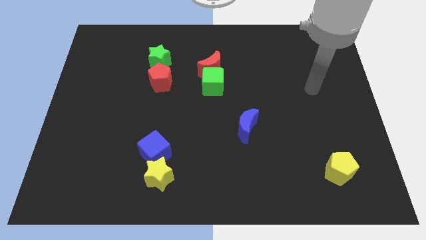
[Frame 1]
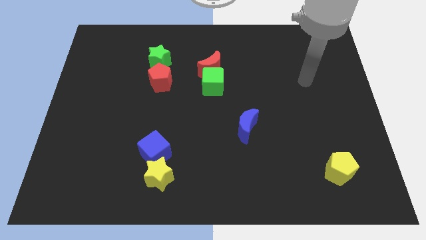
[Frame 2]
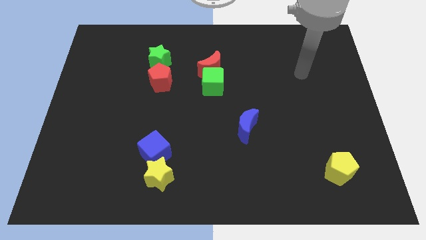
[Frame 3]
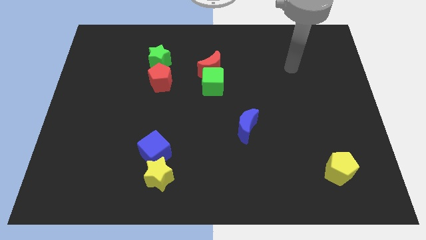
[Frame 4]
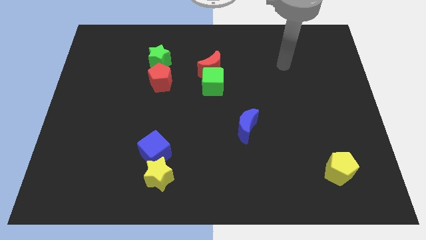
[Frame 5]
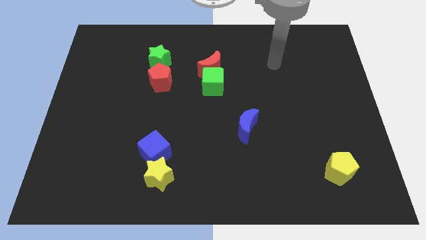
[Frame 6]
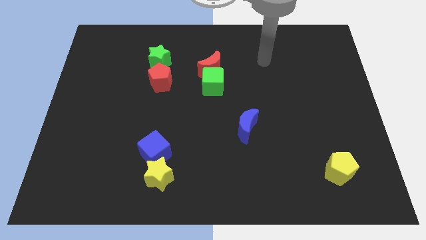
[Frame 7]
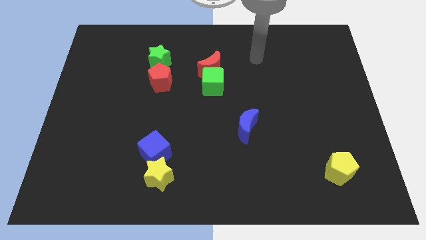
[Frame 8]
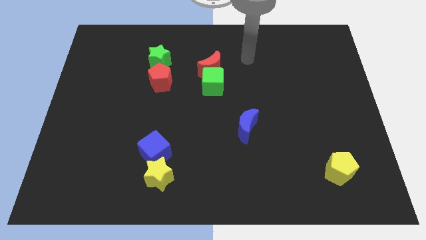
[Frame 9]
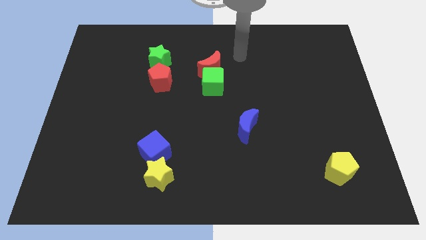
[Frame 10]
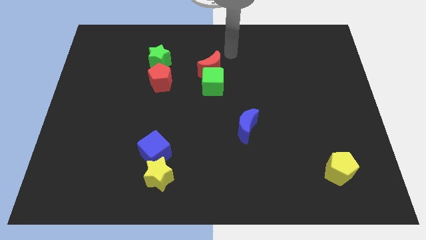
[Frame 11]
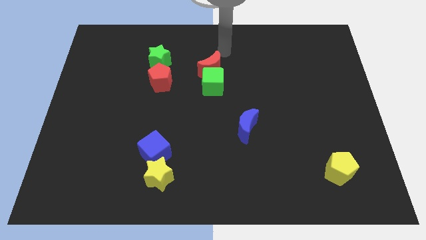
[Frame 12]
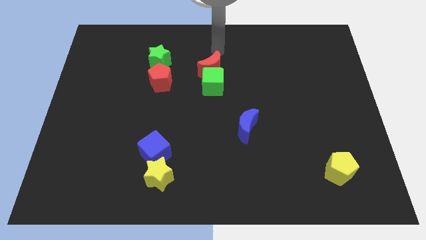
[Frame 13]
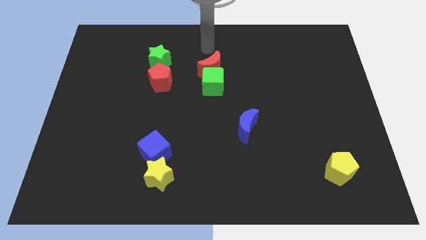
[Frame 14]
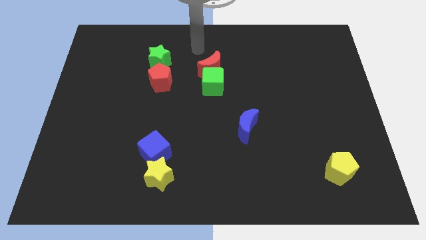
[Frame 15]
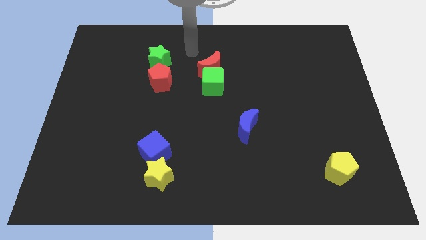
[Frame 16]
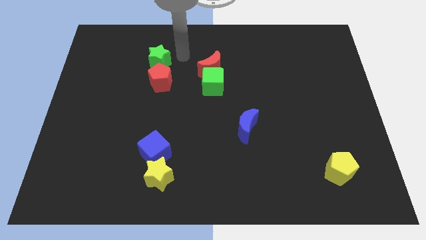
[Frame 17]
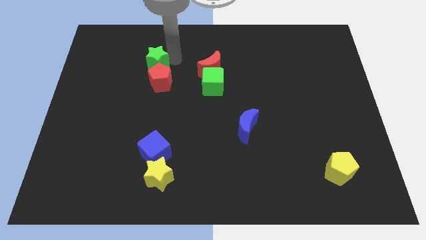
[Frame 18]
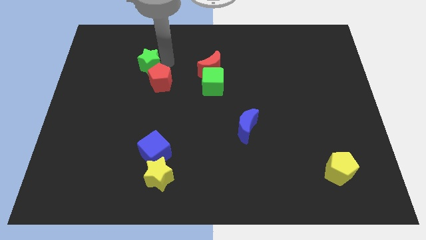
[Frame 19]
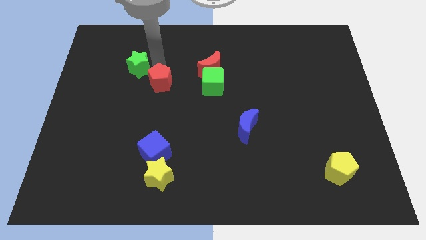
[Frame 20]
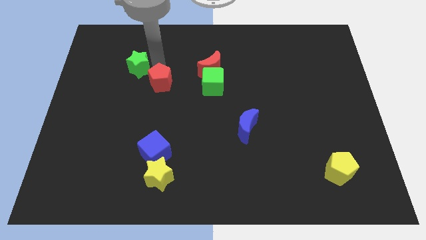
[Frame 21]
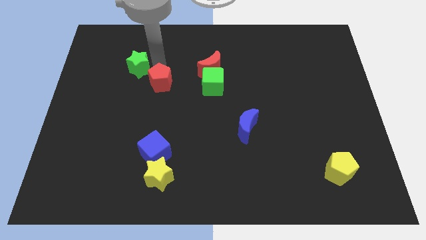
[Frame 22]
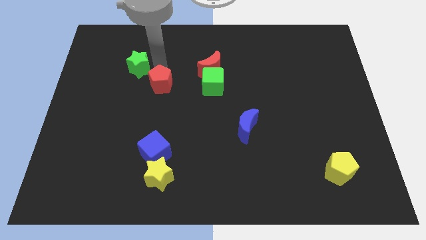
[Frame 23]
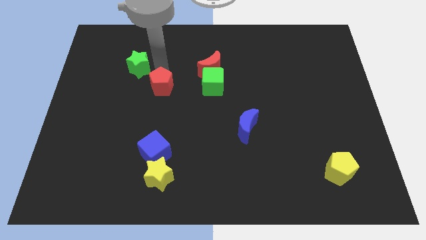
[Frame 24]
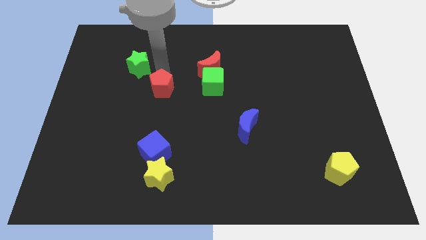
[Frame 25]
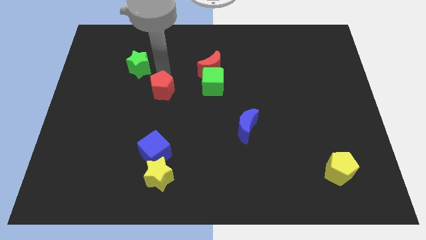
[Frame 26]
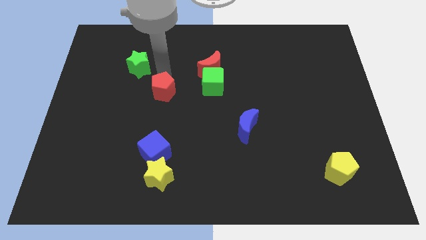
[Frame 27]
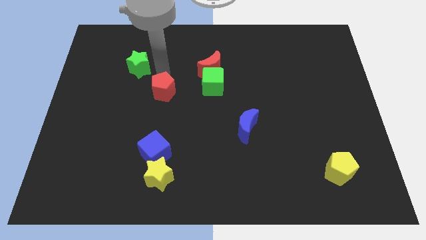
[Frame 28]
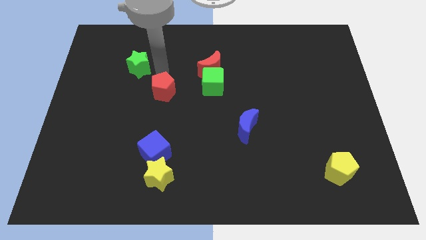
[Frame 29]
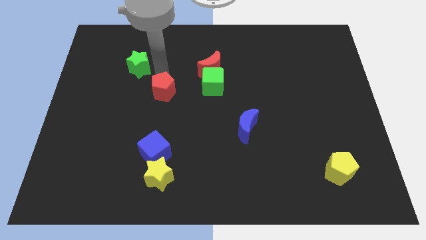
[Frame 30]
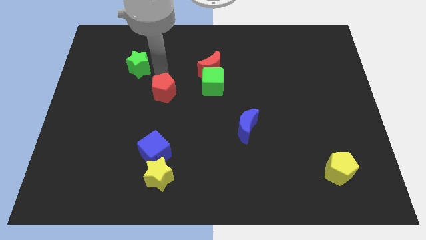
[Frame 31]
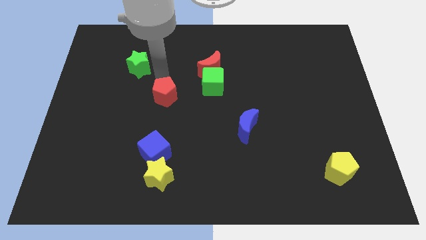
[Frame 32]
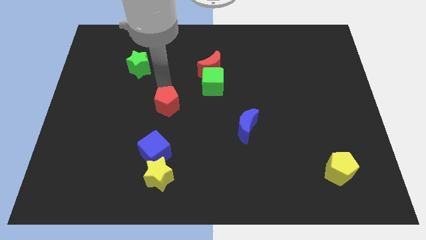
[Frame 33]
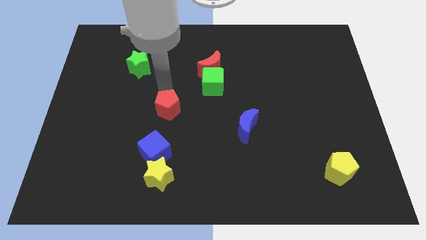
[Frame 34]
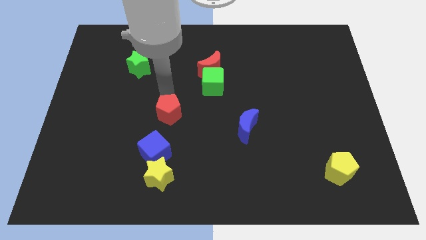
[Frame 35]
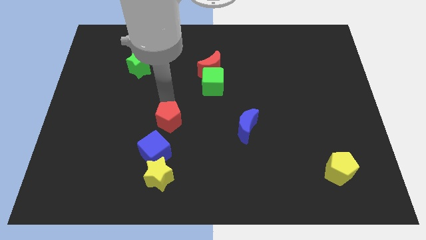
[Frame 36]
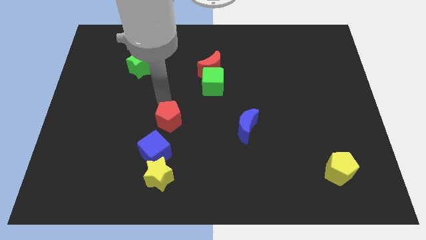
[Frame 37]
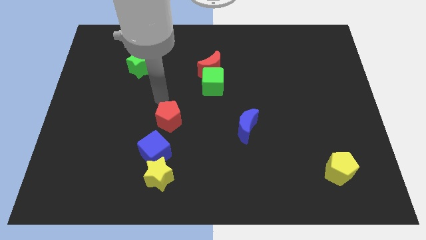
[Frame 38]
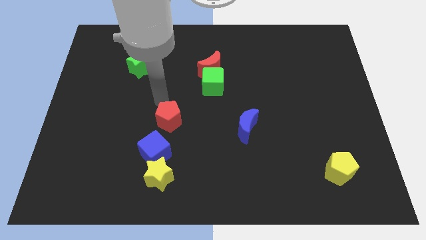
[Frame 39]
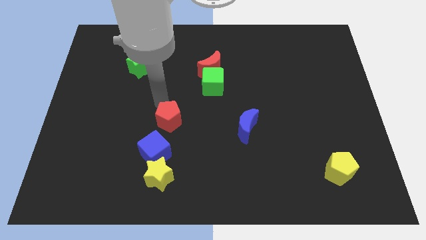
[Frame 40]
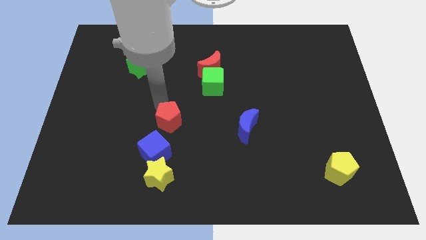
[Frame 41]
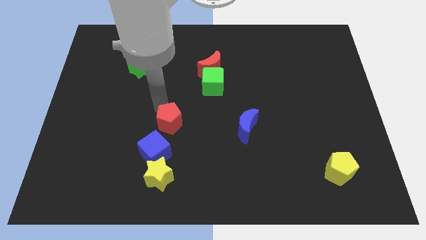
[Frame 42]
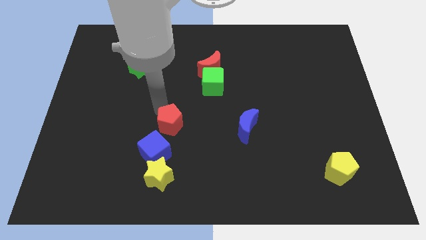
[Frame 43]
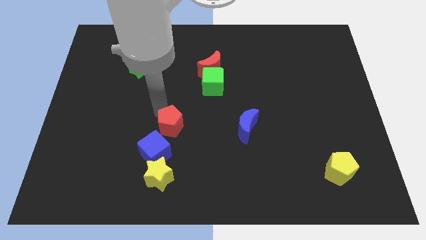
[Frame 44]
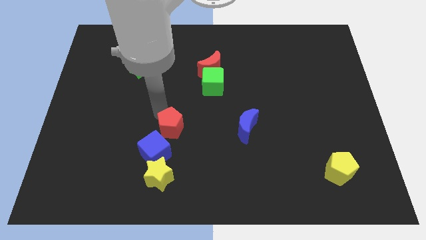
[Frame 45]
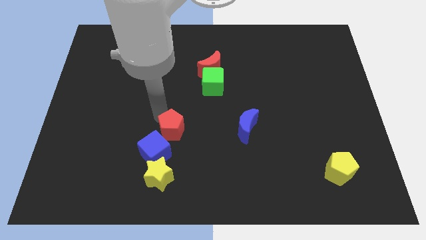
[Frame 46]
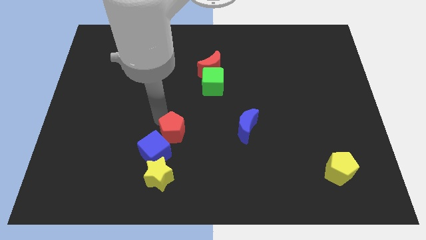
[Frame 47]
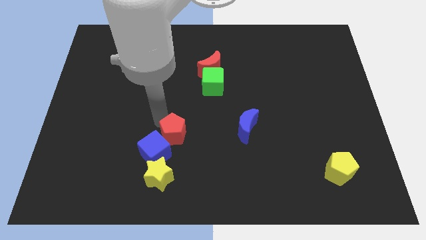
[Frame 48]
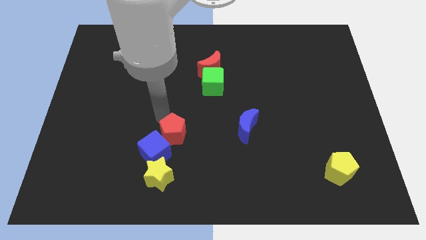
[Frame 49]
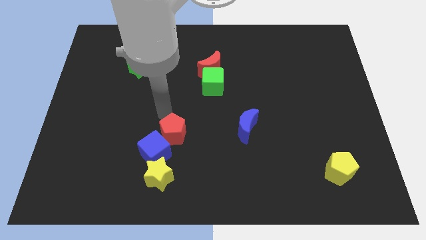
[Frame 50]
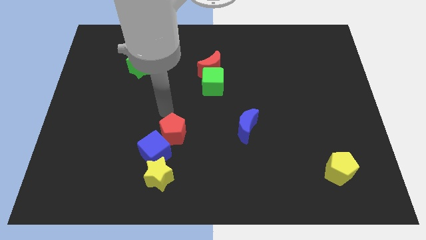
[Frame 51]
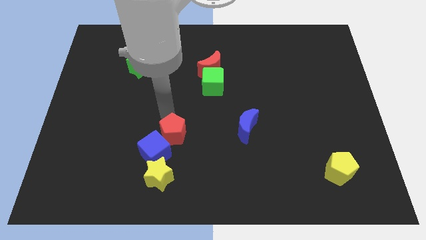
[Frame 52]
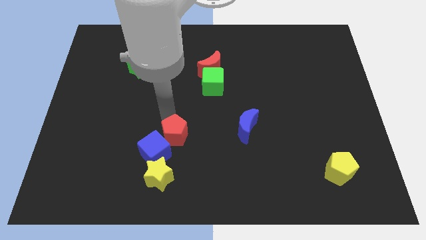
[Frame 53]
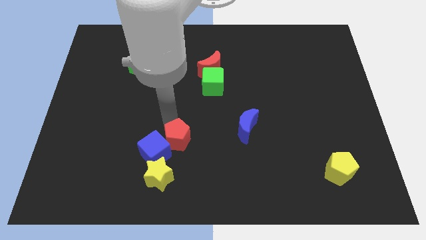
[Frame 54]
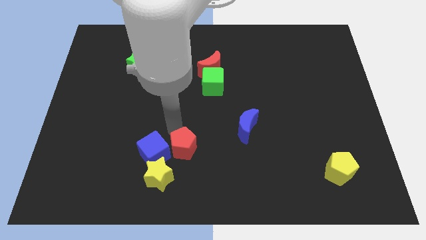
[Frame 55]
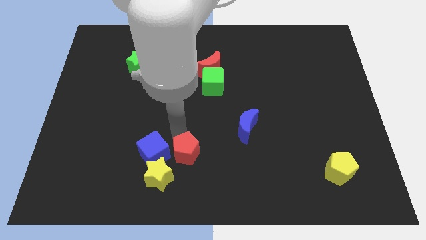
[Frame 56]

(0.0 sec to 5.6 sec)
put the red pentagon to the bottom right of the blue cube
